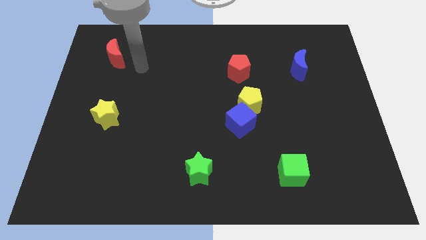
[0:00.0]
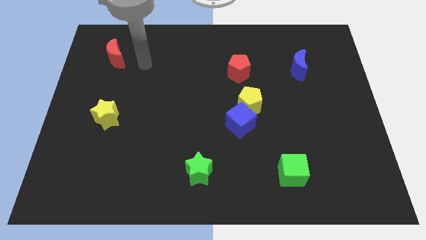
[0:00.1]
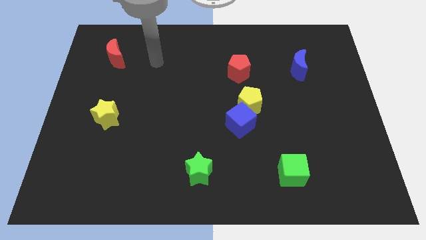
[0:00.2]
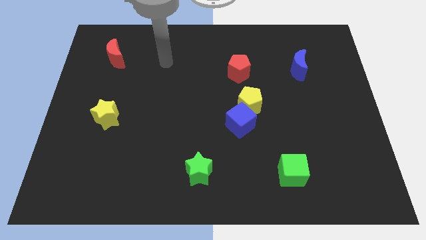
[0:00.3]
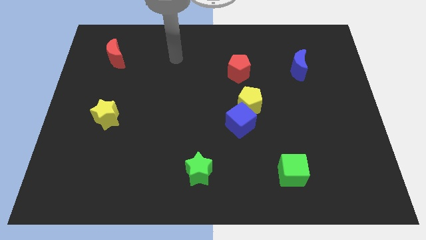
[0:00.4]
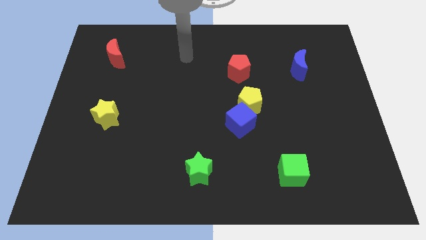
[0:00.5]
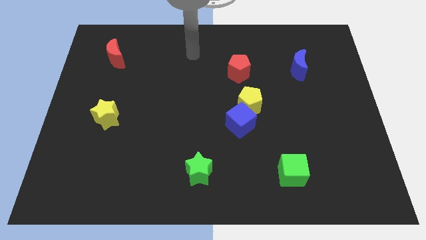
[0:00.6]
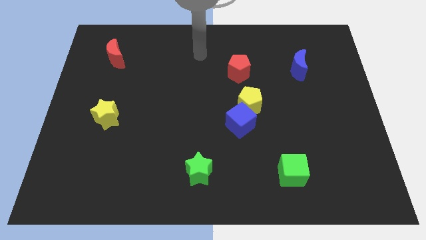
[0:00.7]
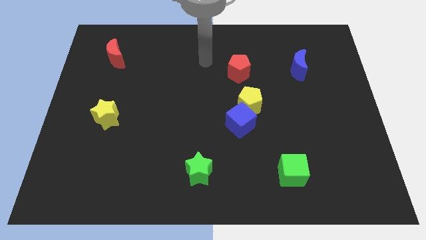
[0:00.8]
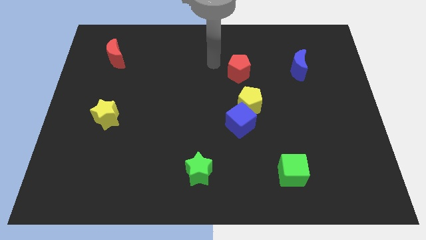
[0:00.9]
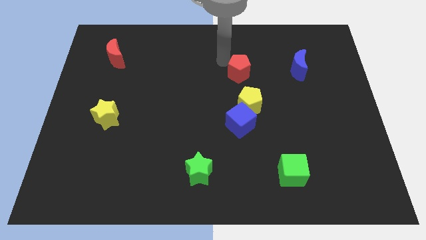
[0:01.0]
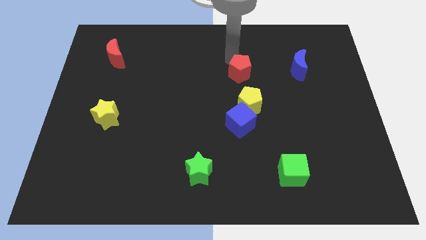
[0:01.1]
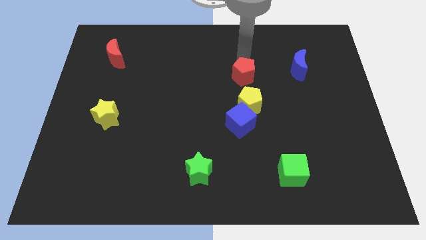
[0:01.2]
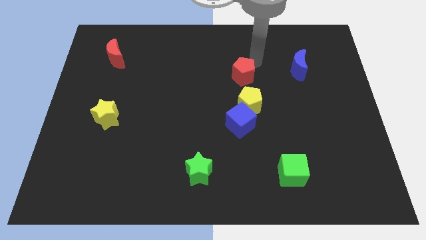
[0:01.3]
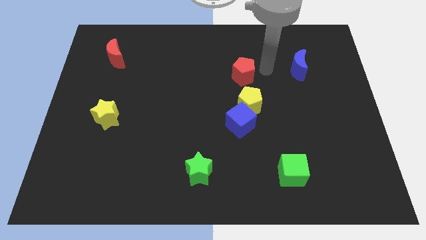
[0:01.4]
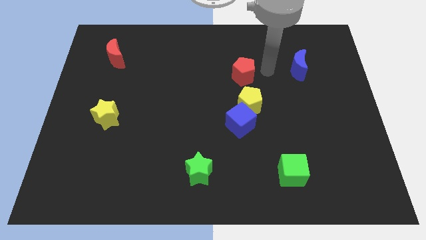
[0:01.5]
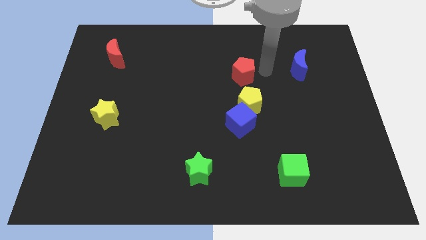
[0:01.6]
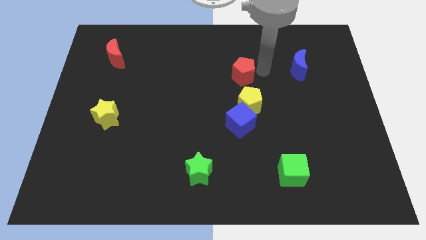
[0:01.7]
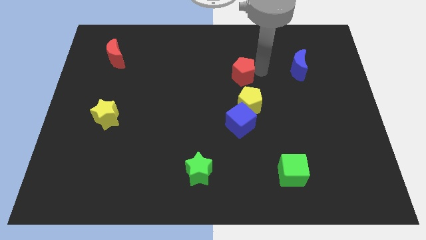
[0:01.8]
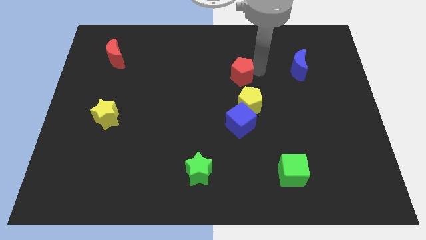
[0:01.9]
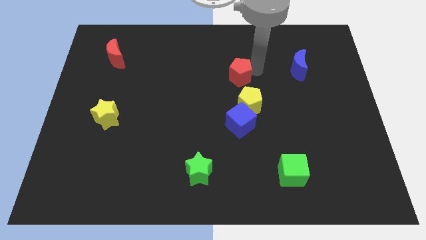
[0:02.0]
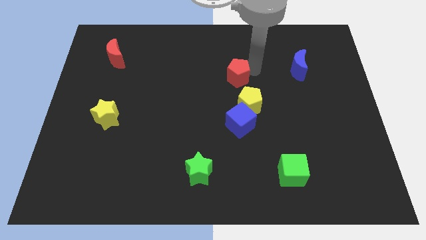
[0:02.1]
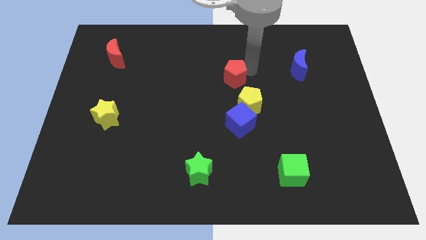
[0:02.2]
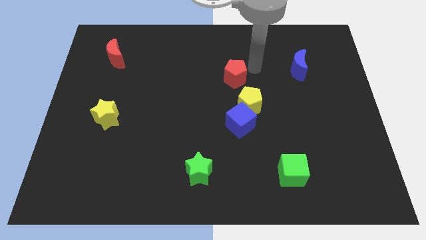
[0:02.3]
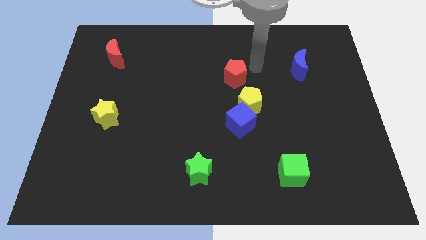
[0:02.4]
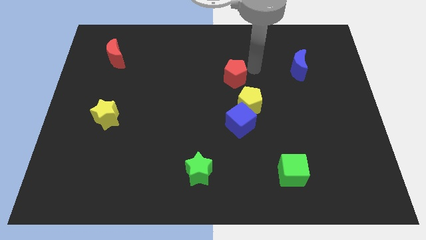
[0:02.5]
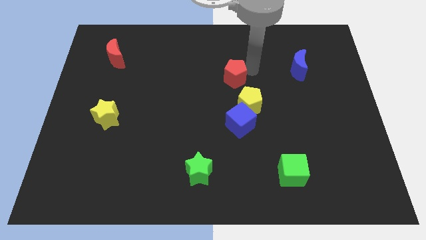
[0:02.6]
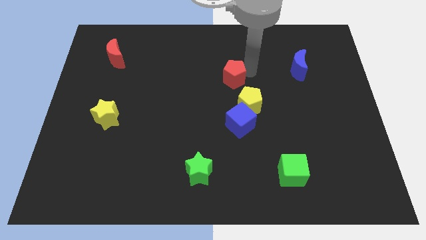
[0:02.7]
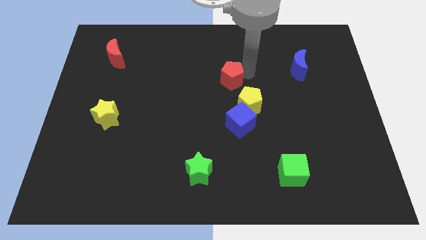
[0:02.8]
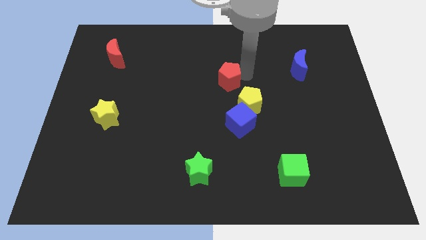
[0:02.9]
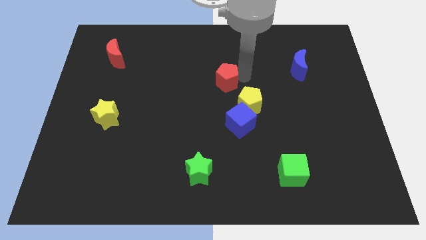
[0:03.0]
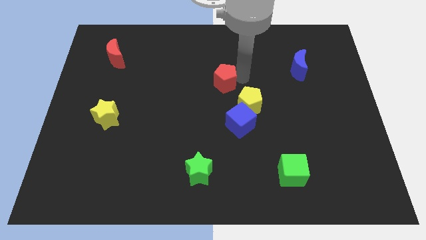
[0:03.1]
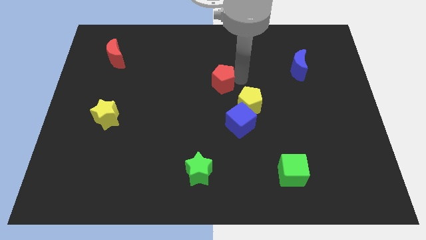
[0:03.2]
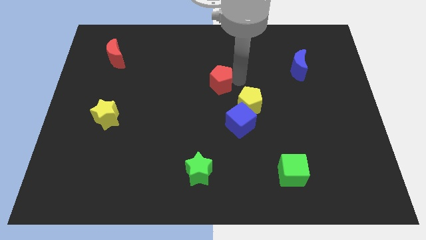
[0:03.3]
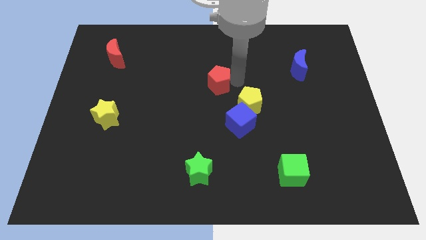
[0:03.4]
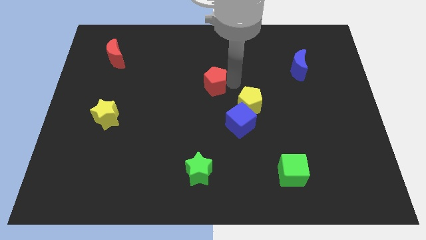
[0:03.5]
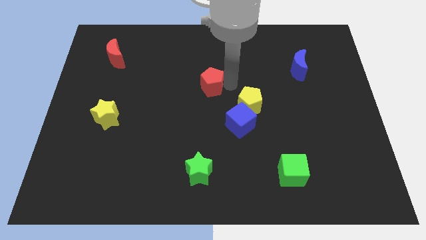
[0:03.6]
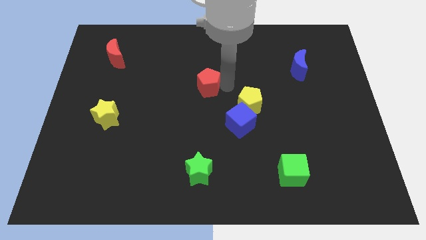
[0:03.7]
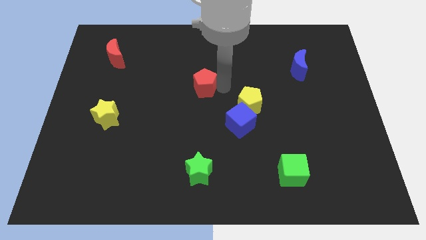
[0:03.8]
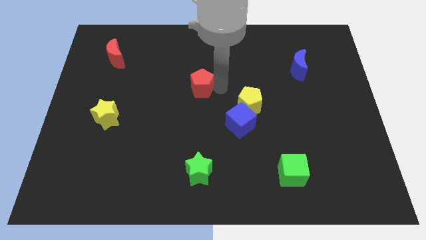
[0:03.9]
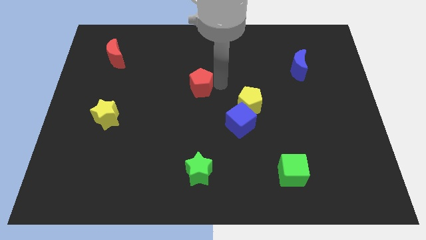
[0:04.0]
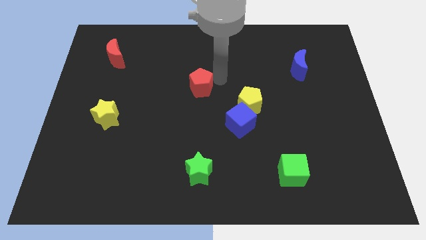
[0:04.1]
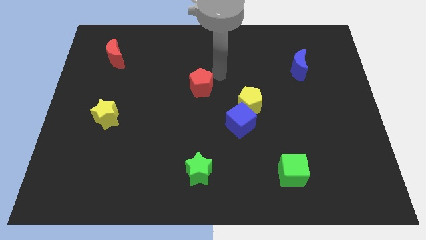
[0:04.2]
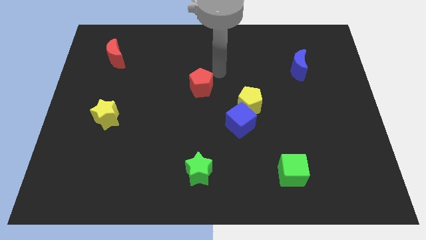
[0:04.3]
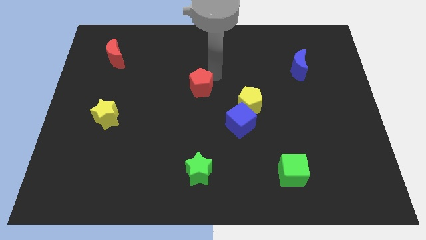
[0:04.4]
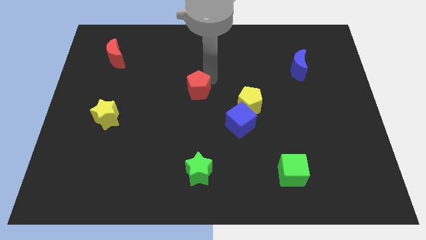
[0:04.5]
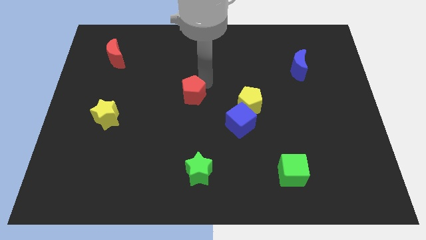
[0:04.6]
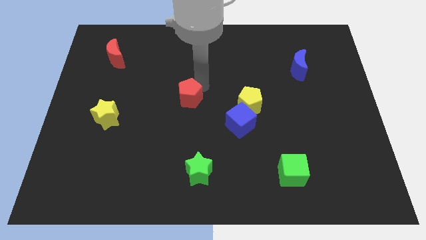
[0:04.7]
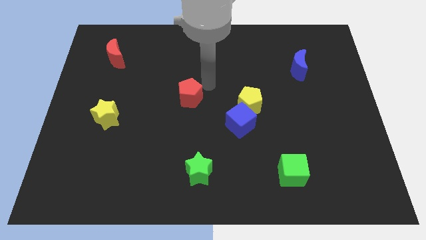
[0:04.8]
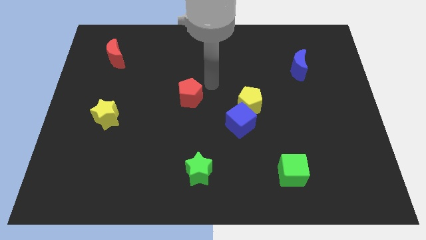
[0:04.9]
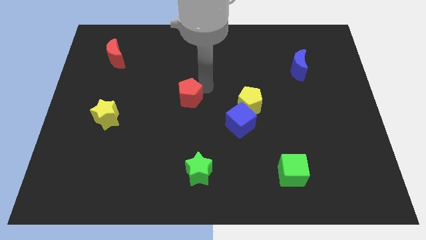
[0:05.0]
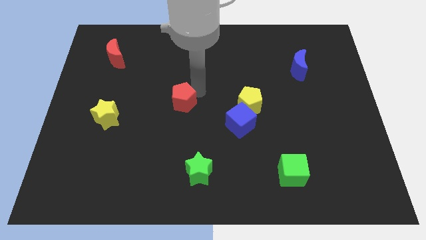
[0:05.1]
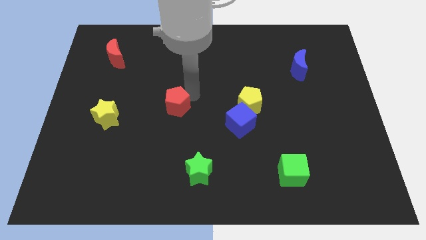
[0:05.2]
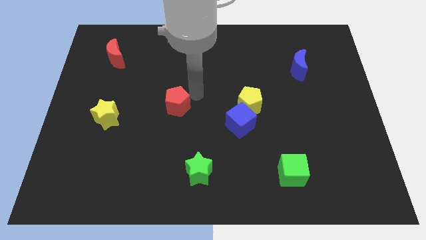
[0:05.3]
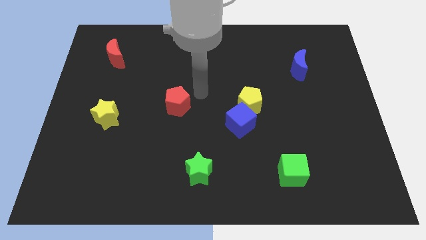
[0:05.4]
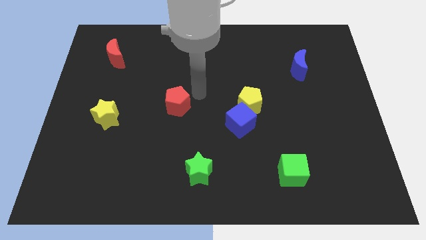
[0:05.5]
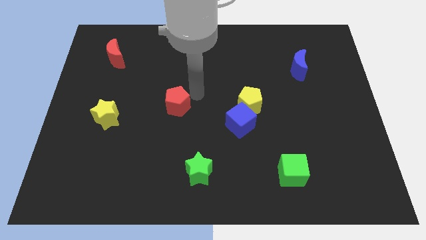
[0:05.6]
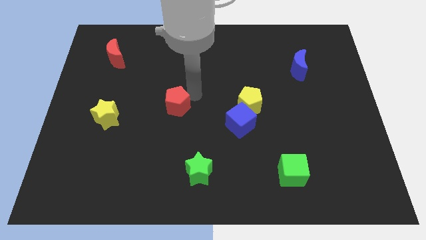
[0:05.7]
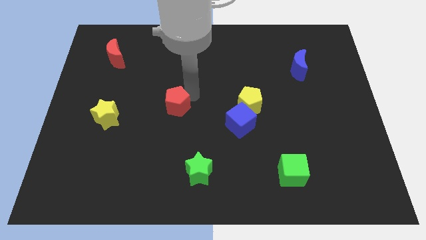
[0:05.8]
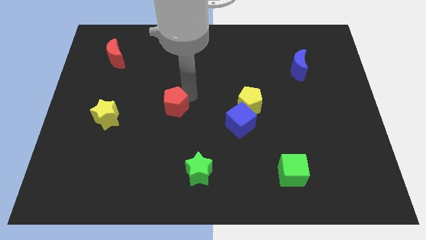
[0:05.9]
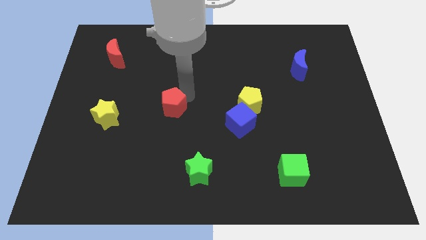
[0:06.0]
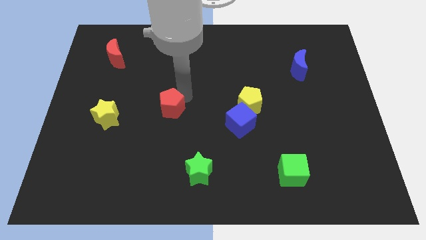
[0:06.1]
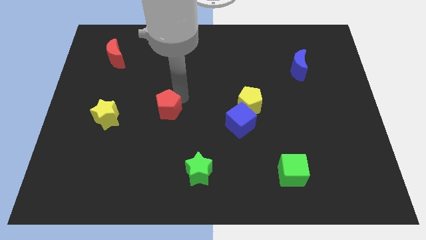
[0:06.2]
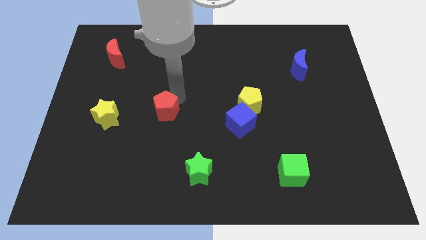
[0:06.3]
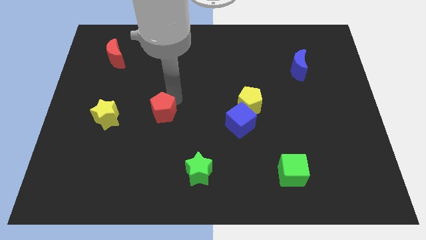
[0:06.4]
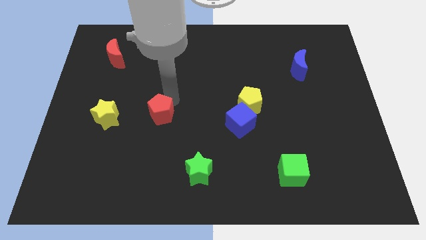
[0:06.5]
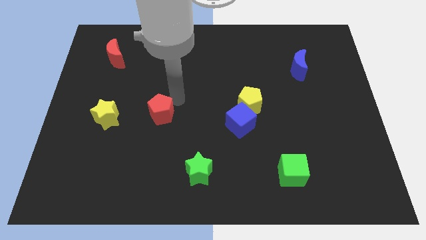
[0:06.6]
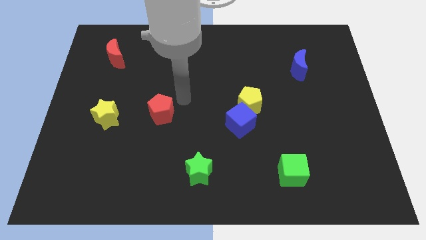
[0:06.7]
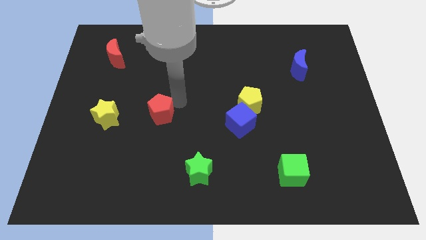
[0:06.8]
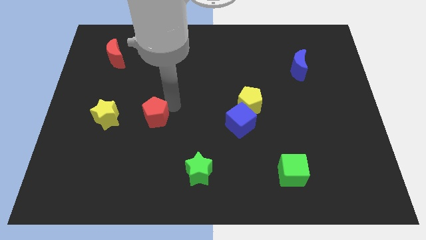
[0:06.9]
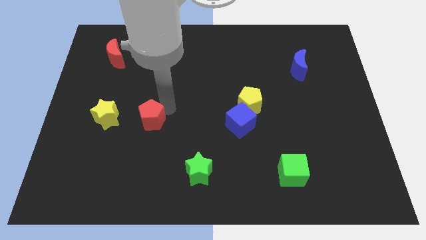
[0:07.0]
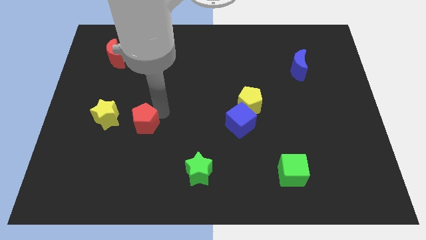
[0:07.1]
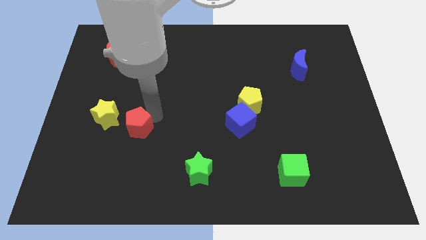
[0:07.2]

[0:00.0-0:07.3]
push the red pentagon diagonally down and to the right of the yellow star
